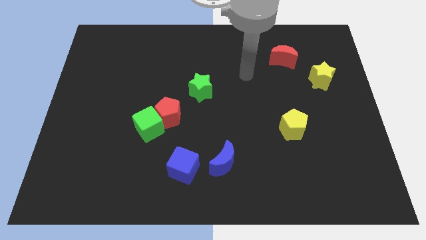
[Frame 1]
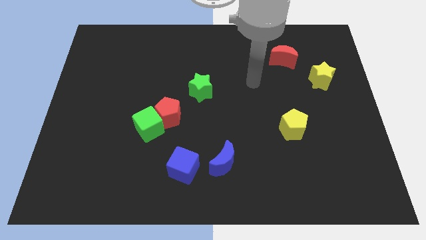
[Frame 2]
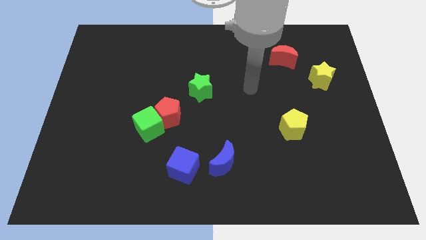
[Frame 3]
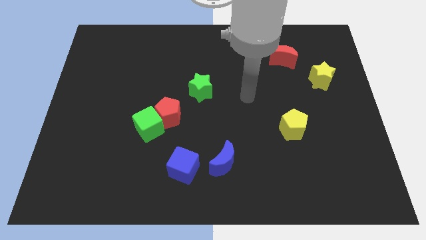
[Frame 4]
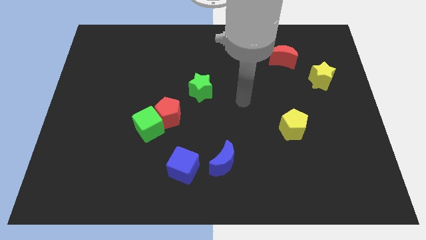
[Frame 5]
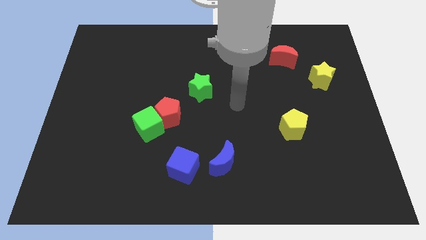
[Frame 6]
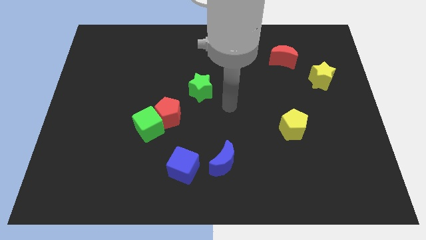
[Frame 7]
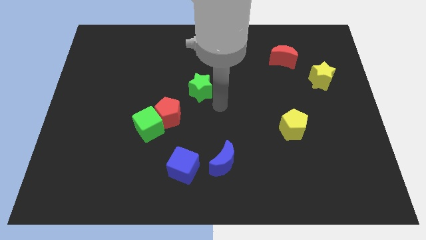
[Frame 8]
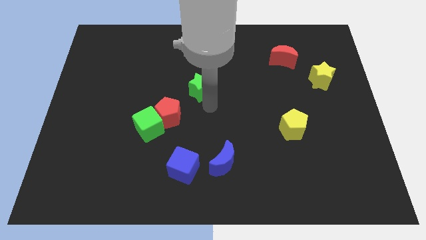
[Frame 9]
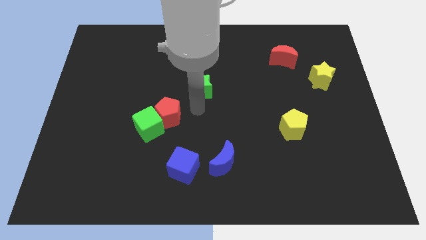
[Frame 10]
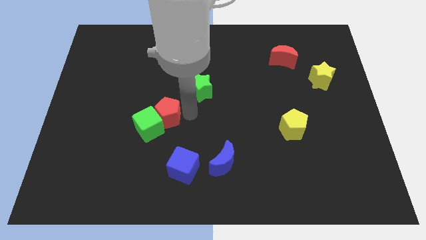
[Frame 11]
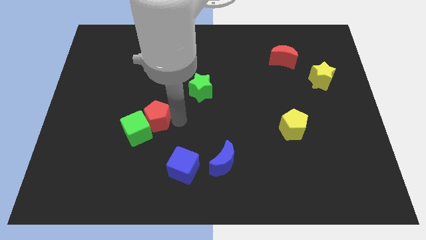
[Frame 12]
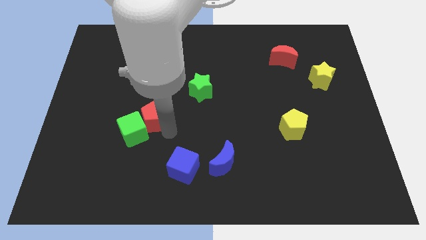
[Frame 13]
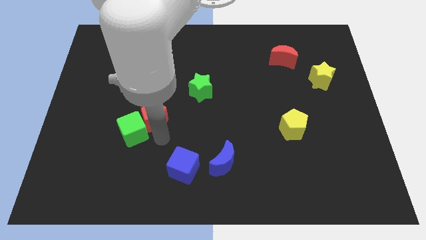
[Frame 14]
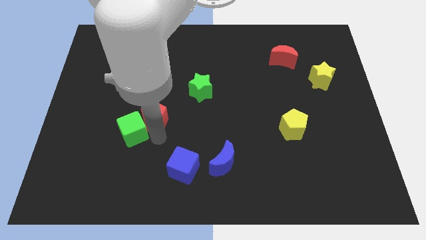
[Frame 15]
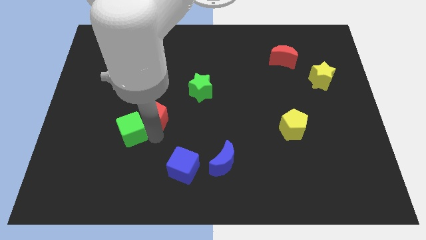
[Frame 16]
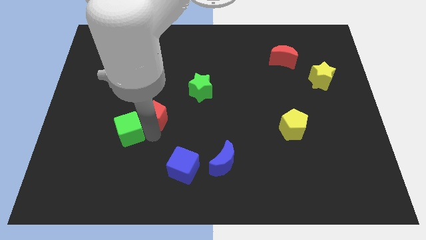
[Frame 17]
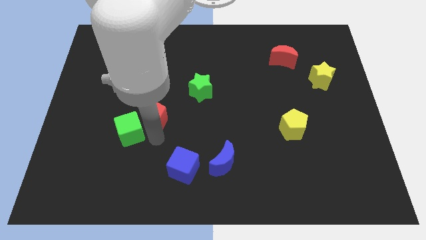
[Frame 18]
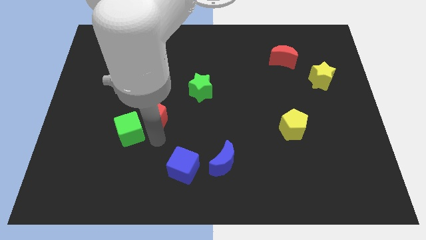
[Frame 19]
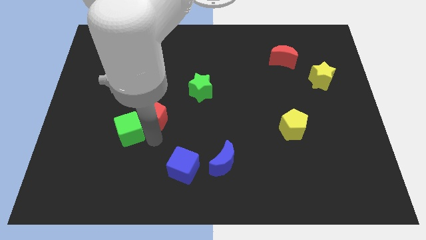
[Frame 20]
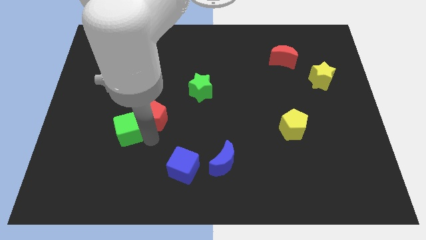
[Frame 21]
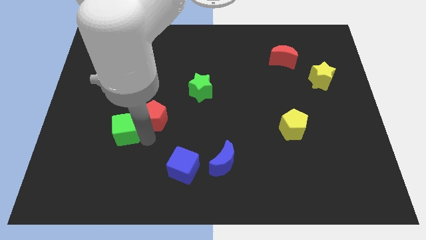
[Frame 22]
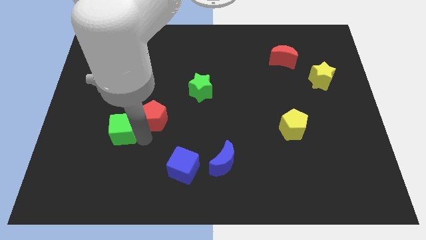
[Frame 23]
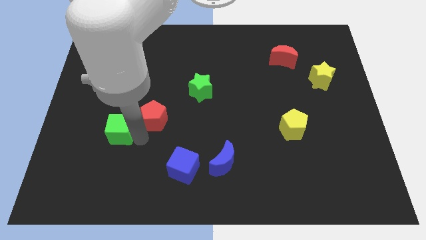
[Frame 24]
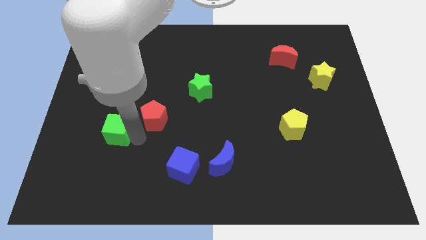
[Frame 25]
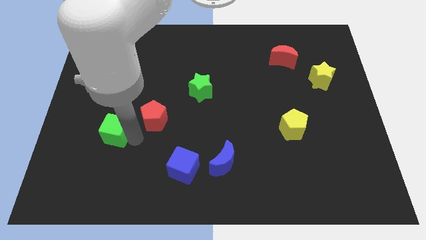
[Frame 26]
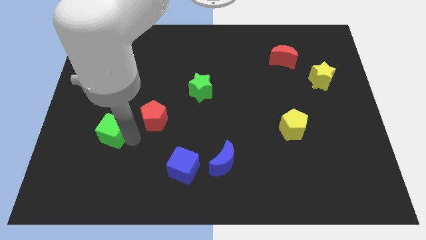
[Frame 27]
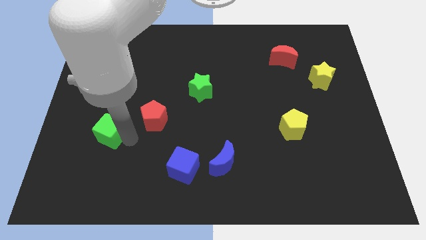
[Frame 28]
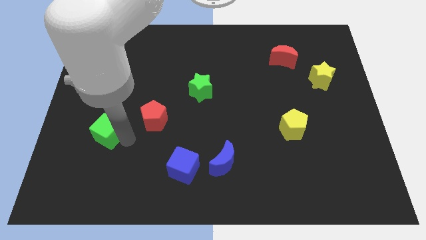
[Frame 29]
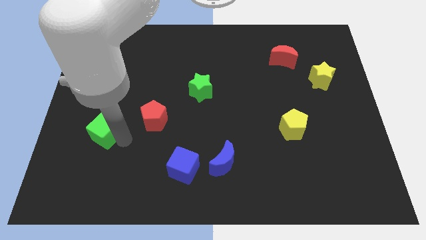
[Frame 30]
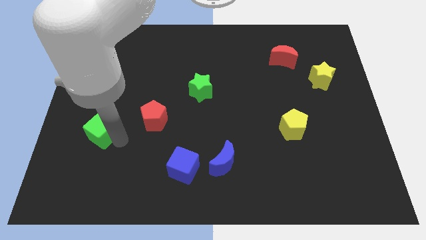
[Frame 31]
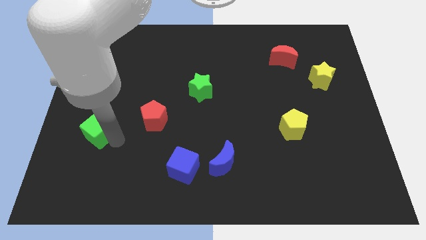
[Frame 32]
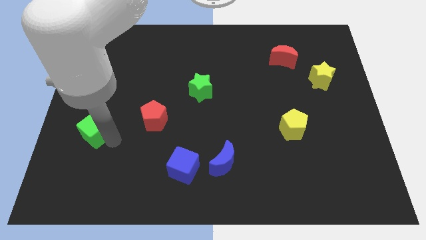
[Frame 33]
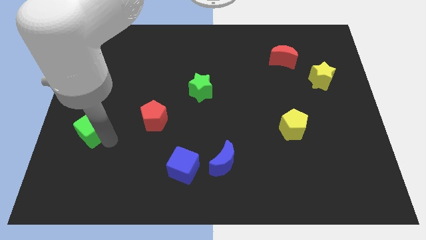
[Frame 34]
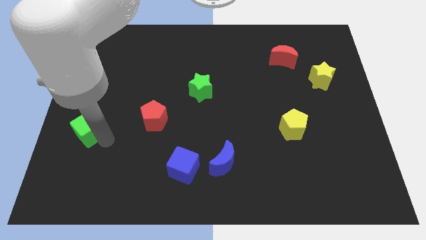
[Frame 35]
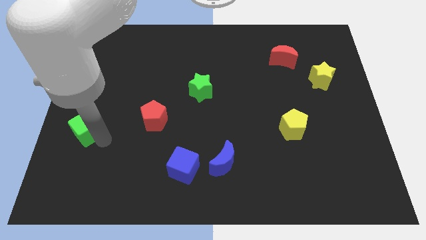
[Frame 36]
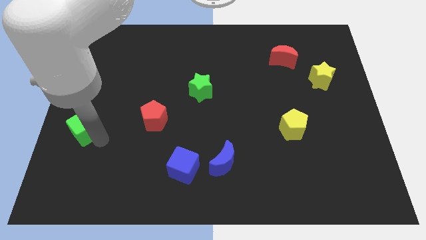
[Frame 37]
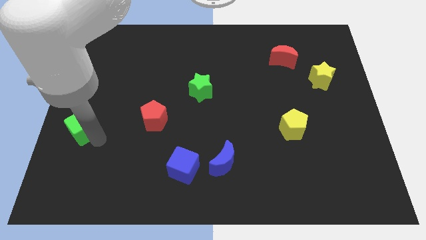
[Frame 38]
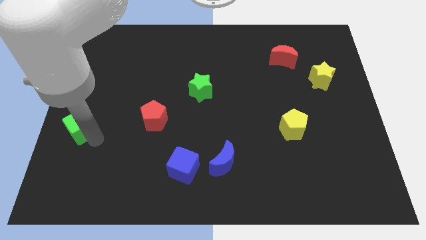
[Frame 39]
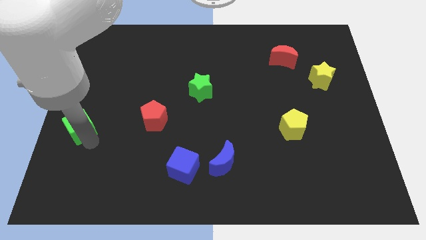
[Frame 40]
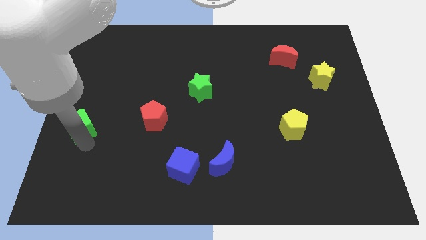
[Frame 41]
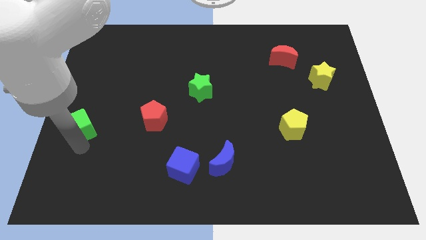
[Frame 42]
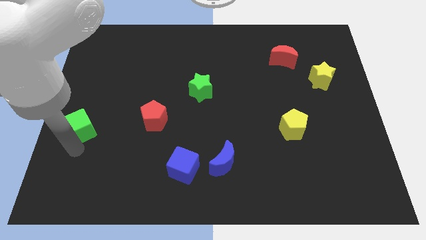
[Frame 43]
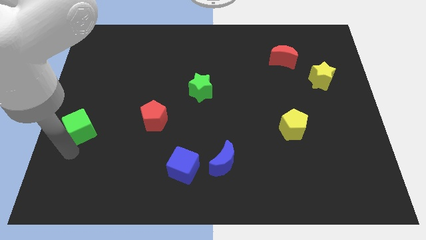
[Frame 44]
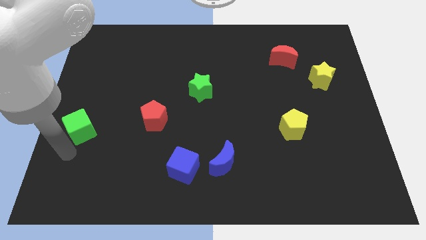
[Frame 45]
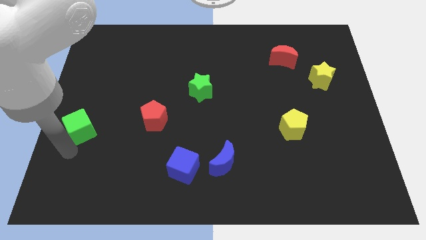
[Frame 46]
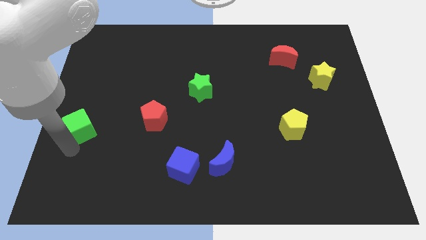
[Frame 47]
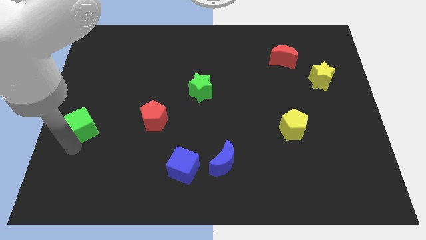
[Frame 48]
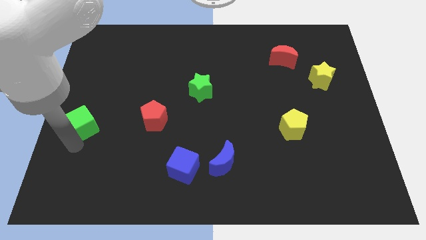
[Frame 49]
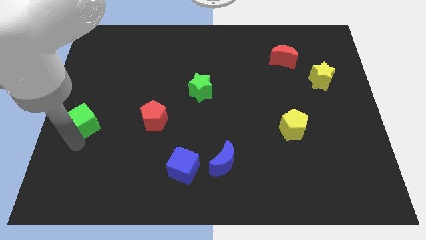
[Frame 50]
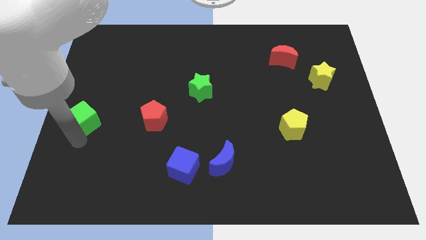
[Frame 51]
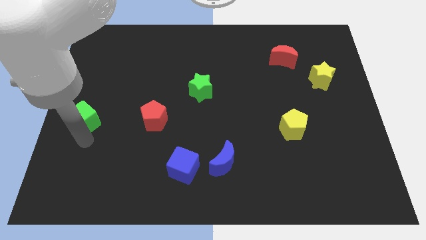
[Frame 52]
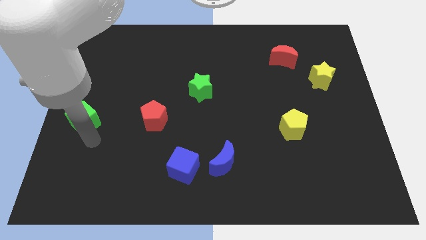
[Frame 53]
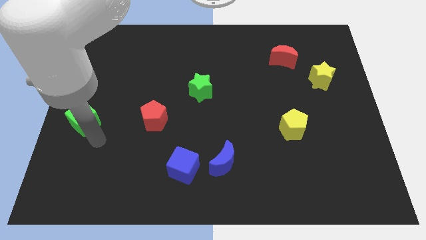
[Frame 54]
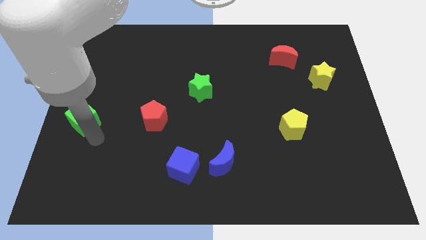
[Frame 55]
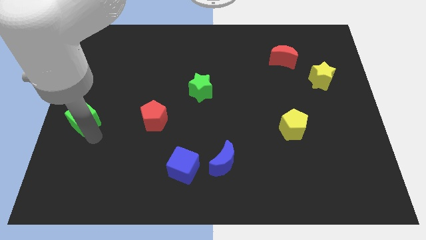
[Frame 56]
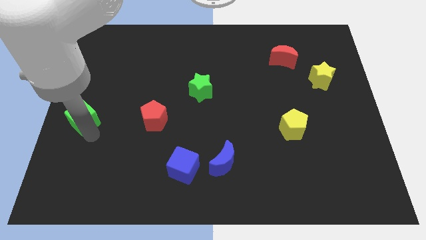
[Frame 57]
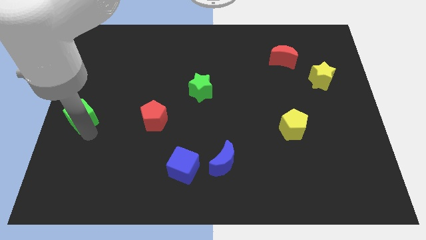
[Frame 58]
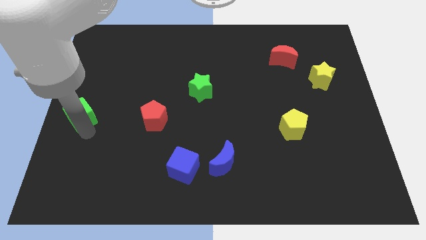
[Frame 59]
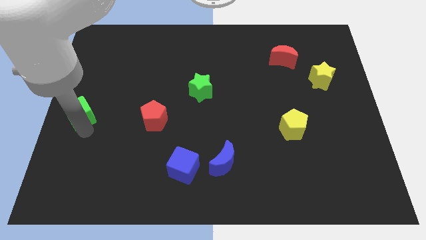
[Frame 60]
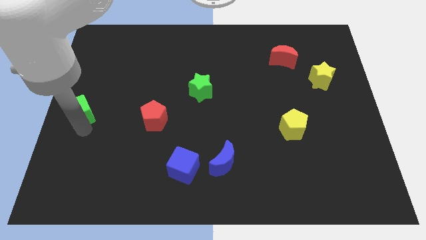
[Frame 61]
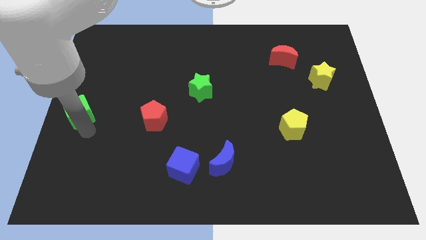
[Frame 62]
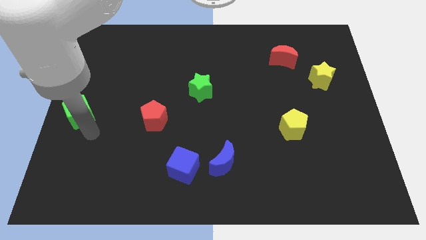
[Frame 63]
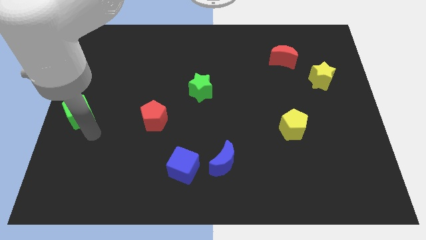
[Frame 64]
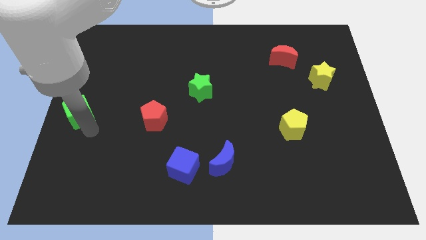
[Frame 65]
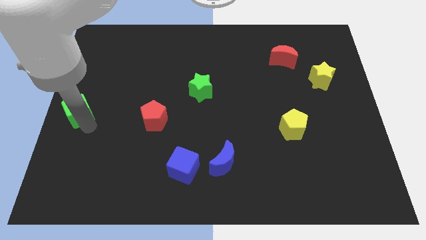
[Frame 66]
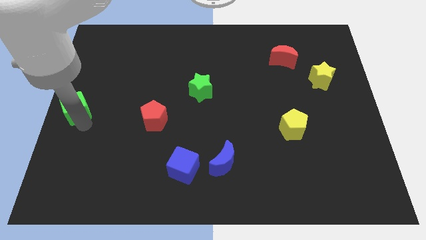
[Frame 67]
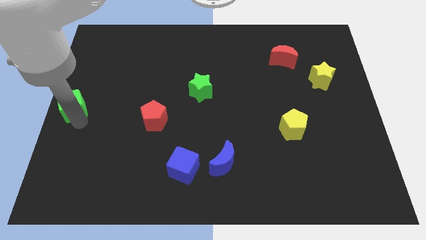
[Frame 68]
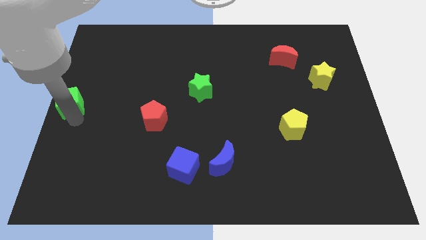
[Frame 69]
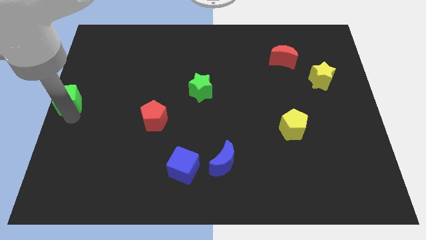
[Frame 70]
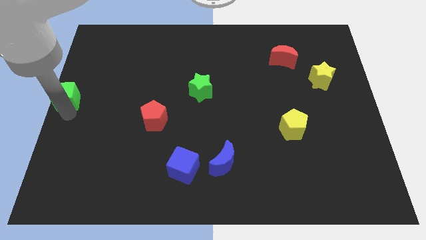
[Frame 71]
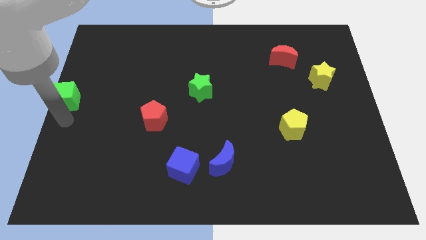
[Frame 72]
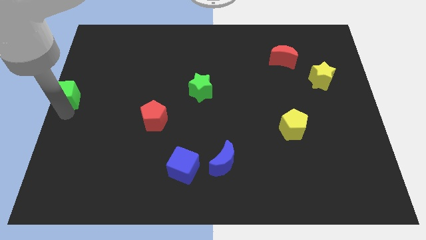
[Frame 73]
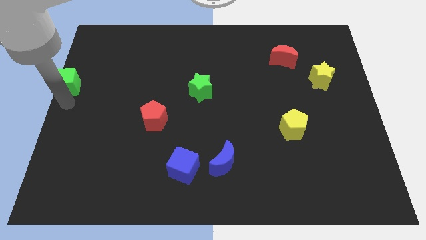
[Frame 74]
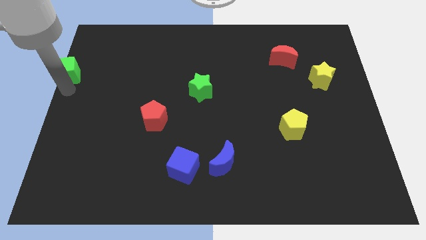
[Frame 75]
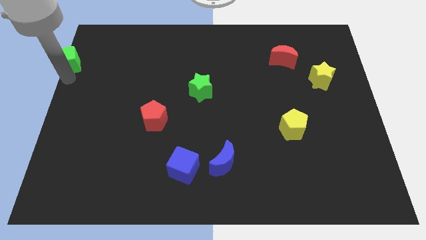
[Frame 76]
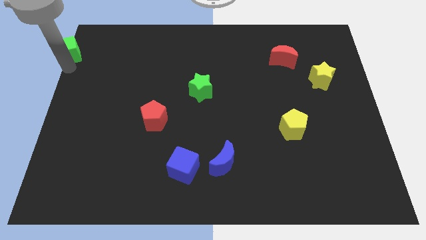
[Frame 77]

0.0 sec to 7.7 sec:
put the green cube to the top left
